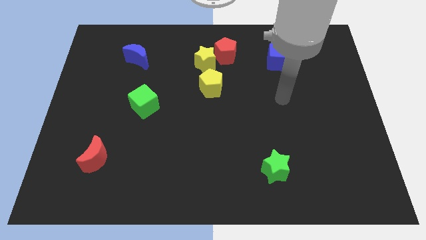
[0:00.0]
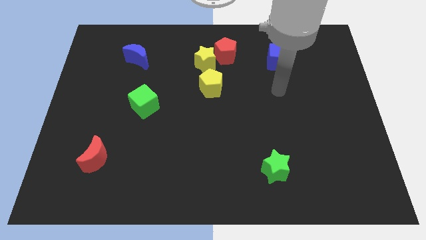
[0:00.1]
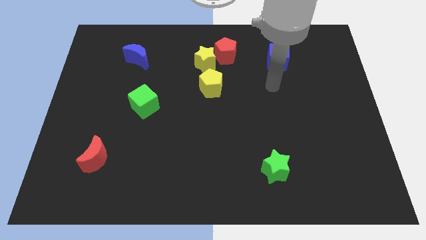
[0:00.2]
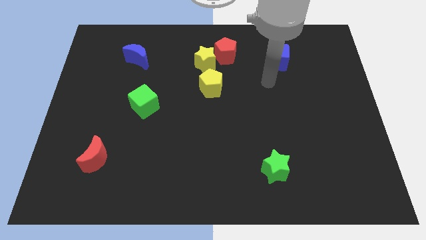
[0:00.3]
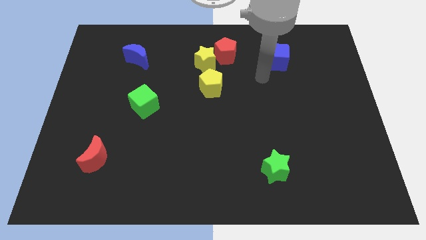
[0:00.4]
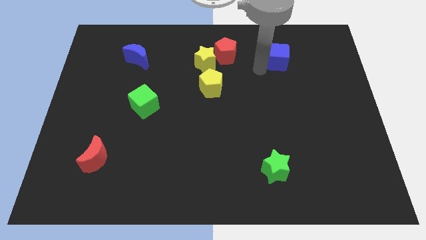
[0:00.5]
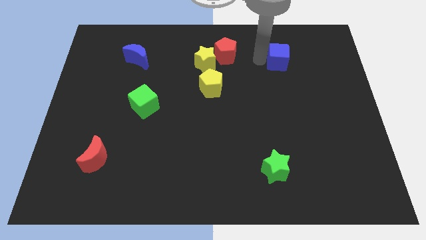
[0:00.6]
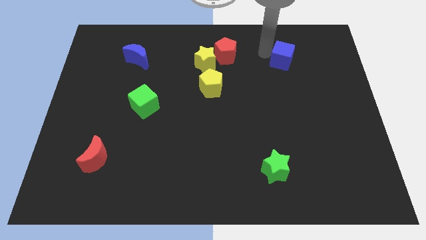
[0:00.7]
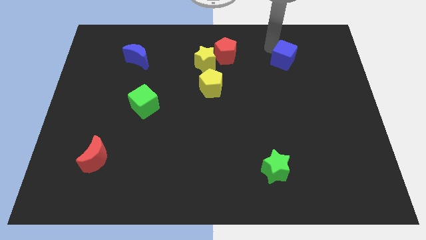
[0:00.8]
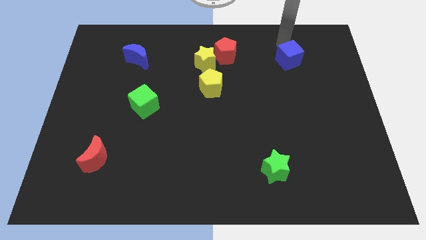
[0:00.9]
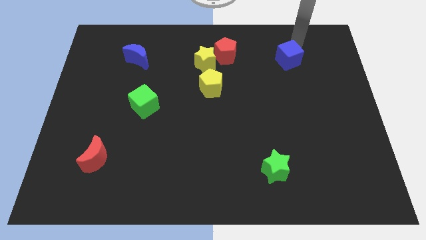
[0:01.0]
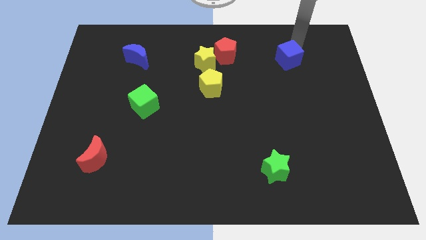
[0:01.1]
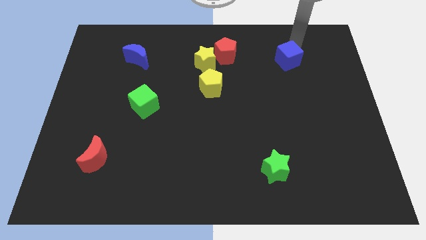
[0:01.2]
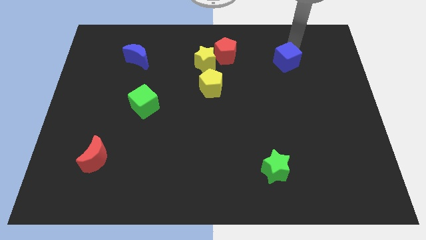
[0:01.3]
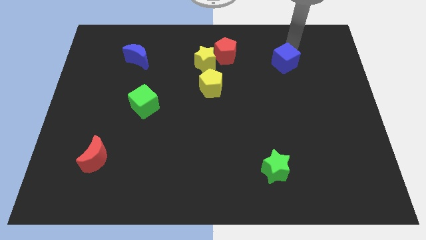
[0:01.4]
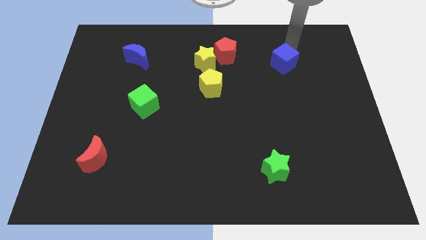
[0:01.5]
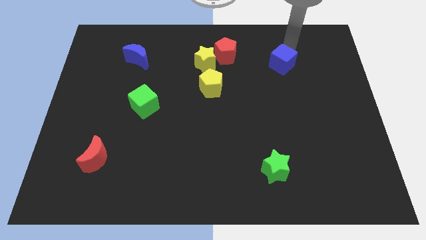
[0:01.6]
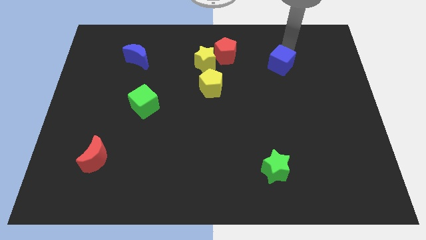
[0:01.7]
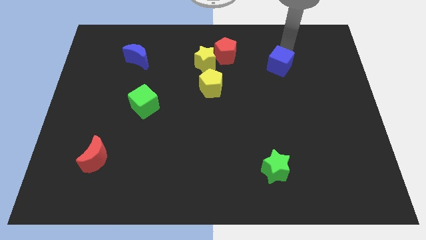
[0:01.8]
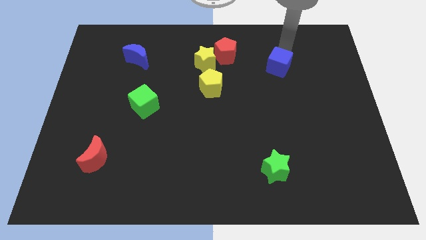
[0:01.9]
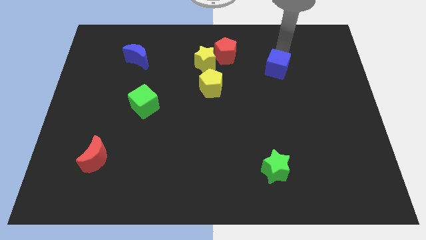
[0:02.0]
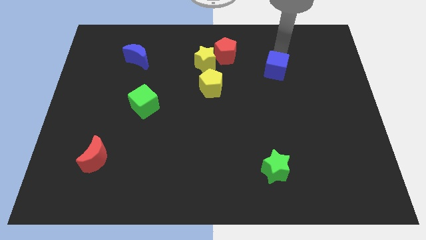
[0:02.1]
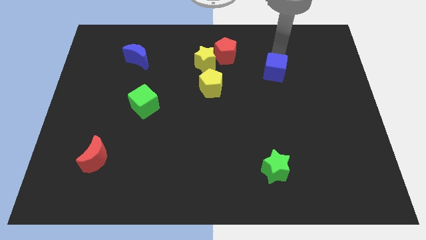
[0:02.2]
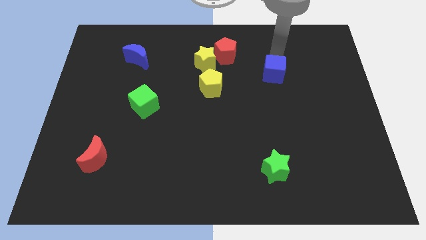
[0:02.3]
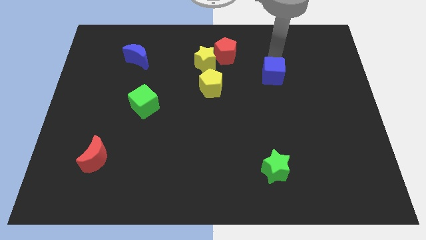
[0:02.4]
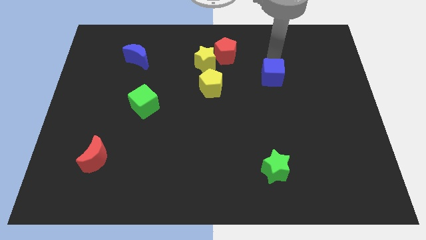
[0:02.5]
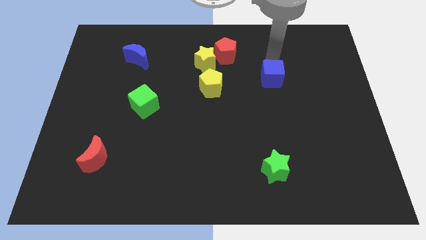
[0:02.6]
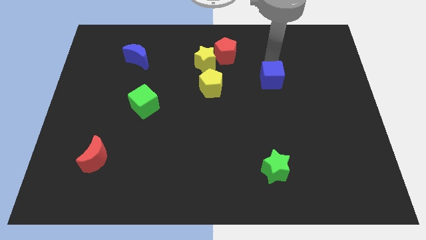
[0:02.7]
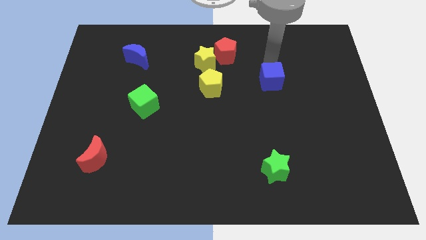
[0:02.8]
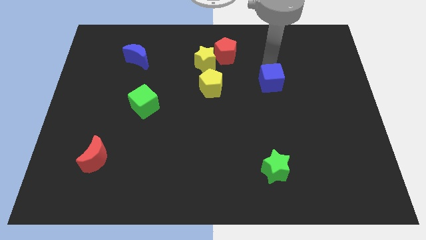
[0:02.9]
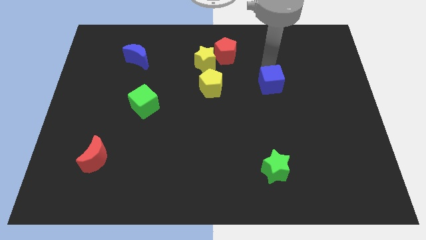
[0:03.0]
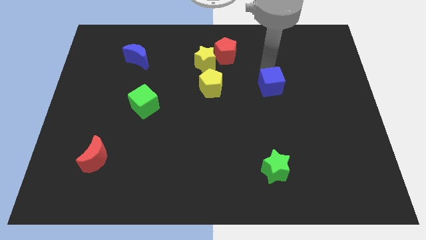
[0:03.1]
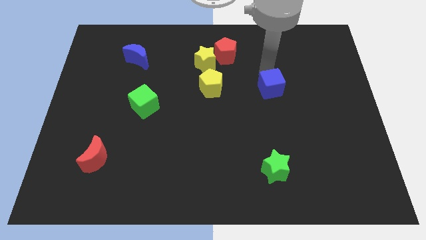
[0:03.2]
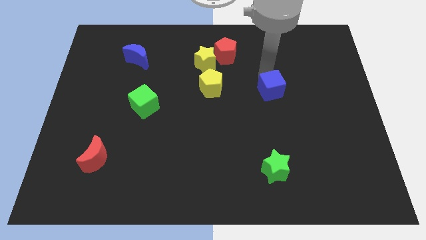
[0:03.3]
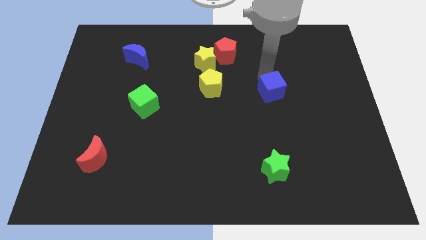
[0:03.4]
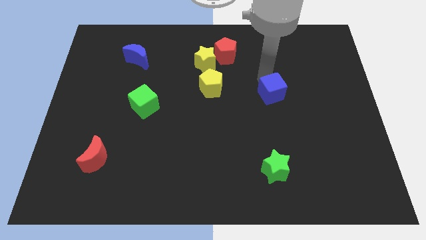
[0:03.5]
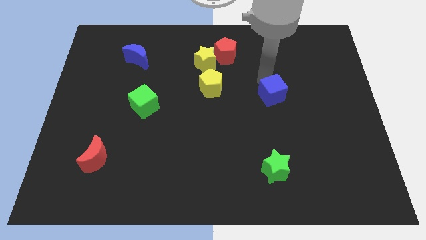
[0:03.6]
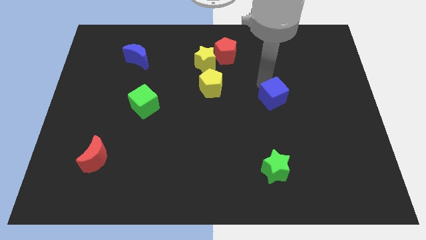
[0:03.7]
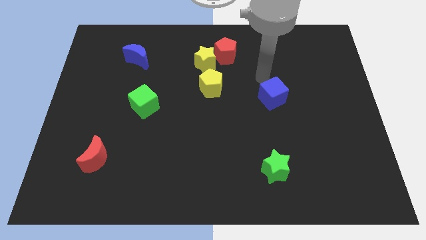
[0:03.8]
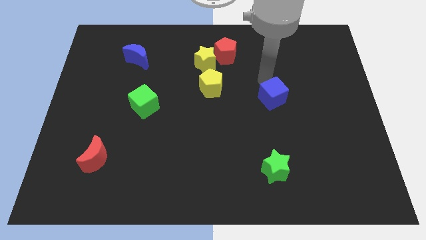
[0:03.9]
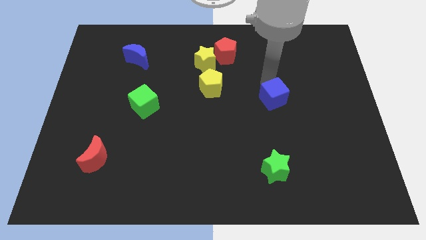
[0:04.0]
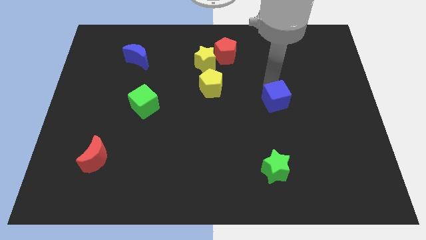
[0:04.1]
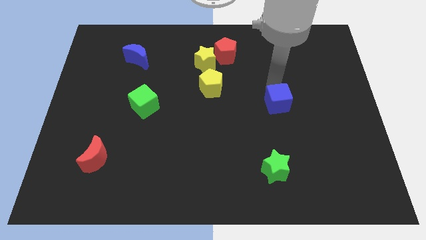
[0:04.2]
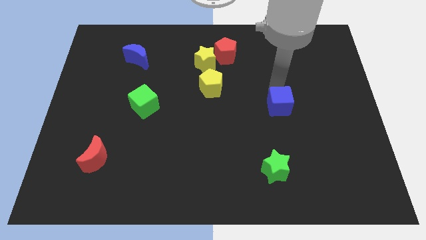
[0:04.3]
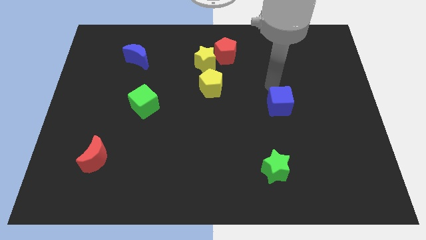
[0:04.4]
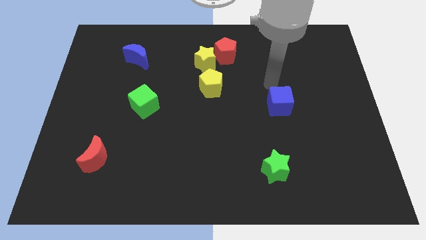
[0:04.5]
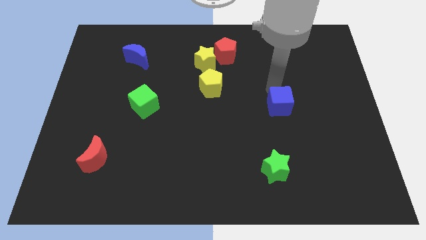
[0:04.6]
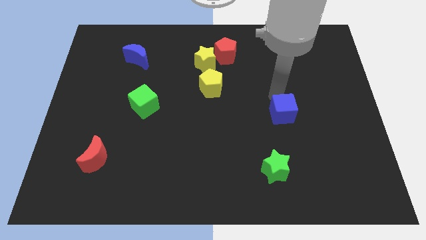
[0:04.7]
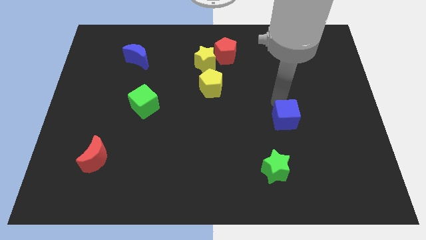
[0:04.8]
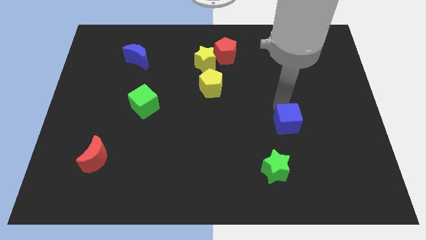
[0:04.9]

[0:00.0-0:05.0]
move the blue cube downwards

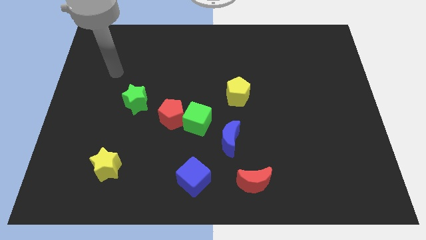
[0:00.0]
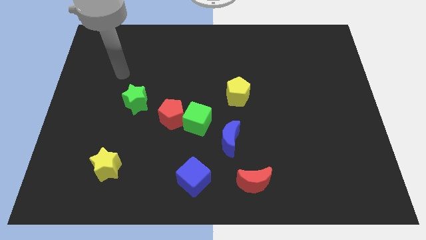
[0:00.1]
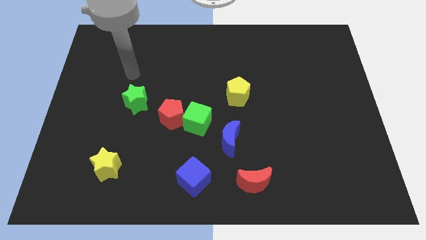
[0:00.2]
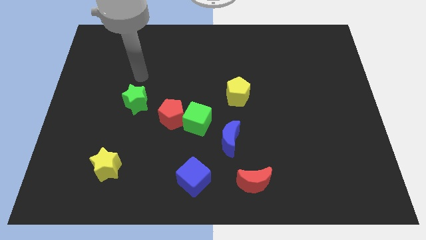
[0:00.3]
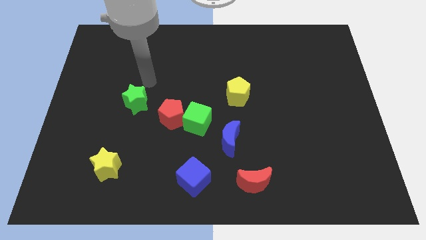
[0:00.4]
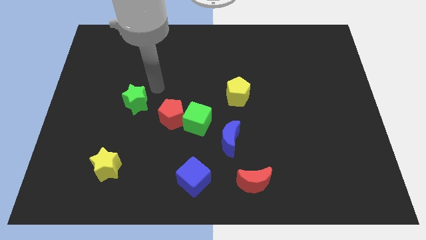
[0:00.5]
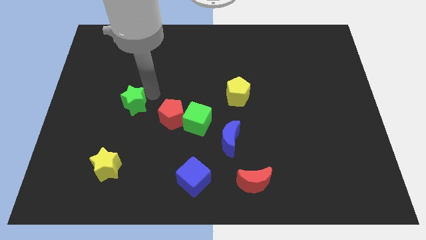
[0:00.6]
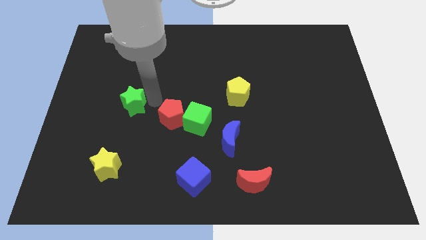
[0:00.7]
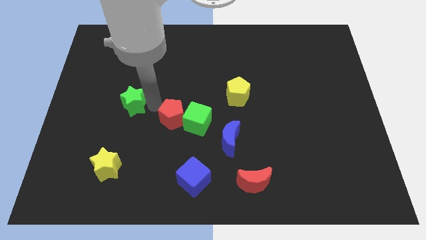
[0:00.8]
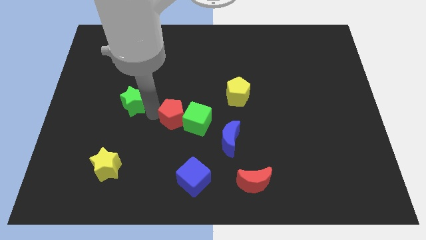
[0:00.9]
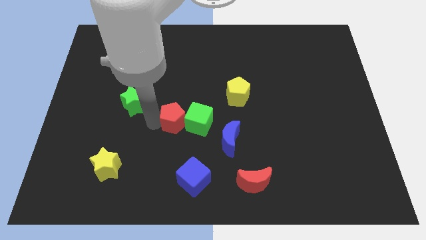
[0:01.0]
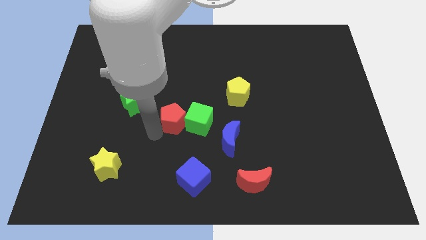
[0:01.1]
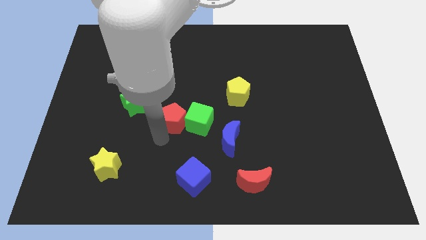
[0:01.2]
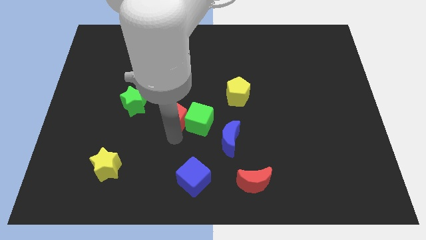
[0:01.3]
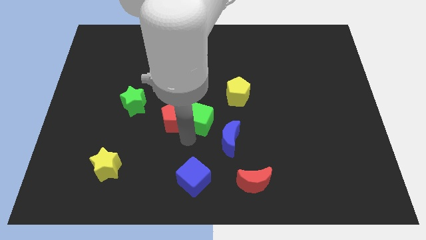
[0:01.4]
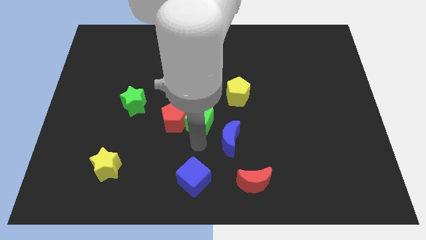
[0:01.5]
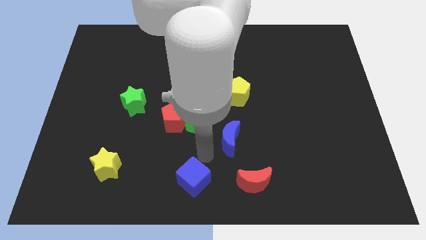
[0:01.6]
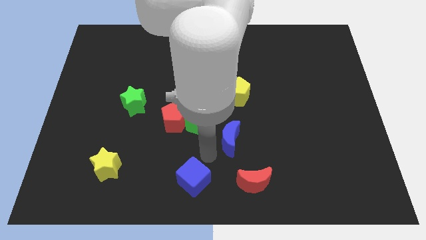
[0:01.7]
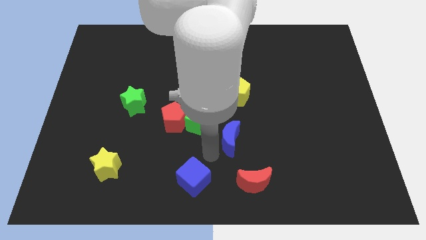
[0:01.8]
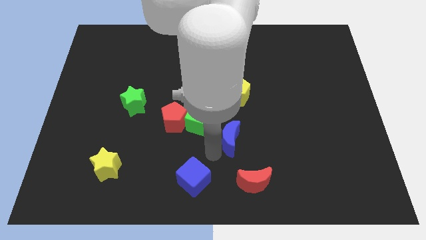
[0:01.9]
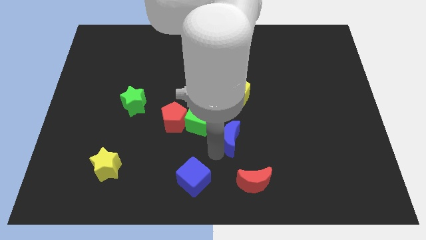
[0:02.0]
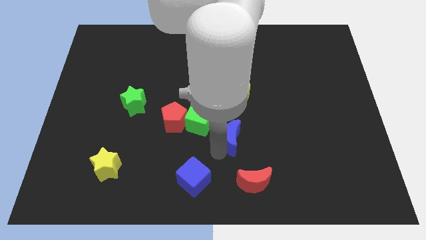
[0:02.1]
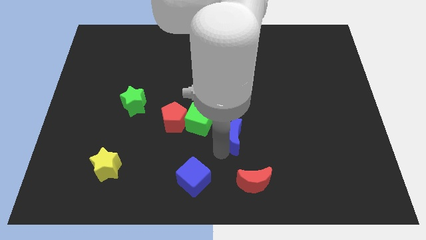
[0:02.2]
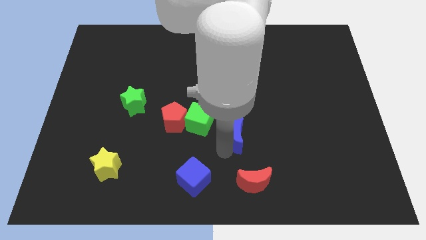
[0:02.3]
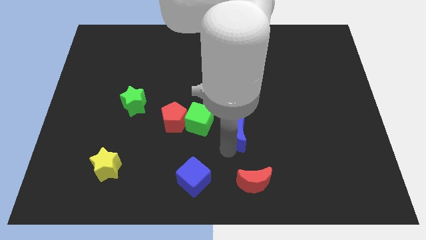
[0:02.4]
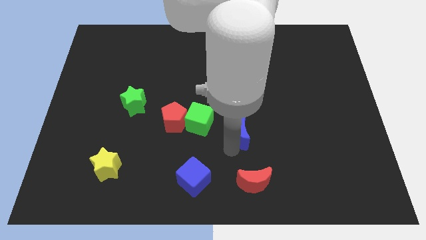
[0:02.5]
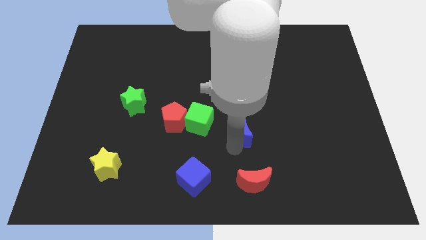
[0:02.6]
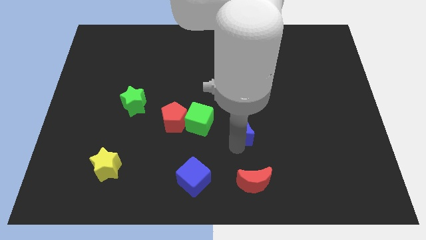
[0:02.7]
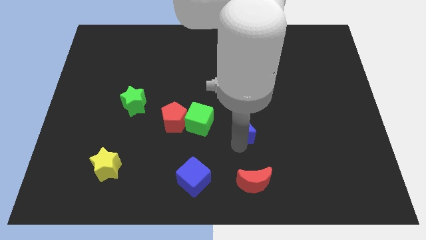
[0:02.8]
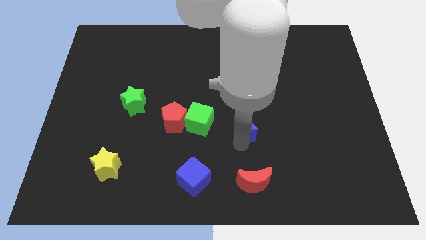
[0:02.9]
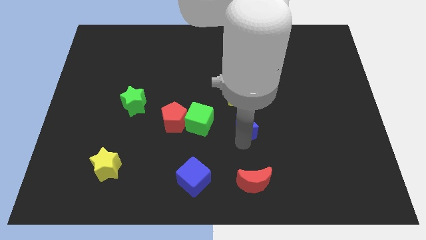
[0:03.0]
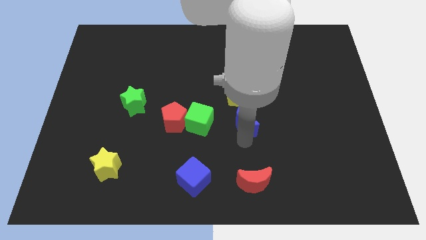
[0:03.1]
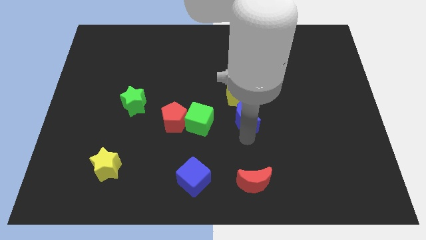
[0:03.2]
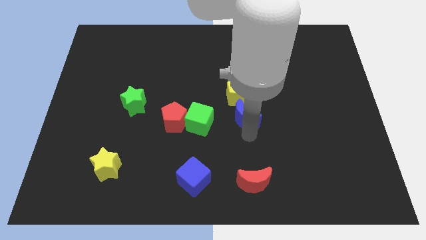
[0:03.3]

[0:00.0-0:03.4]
slightly push the blue moon up and then right

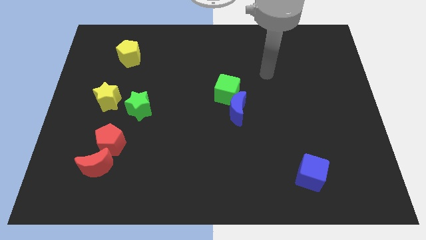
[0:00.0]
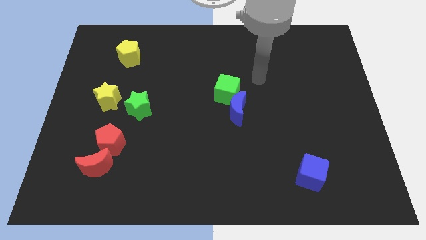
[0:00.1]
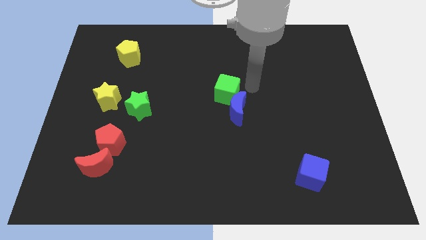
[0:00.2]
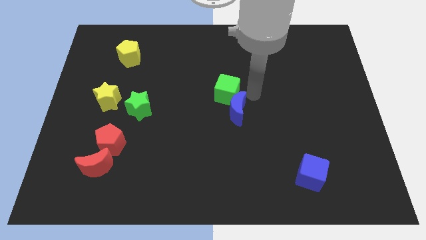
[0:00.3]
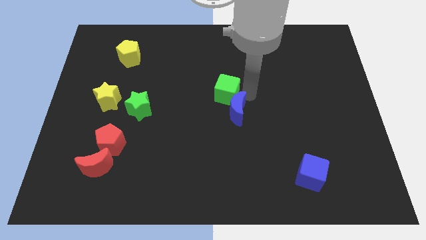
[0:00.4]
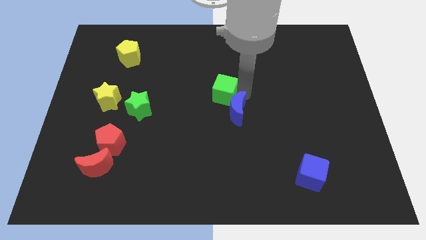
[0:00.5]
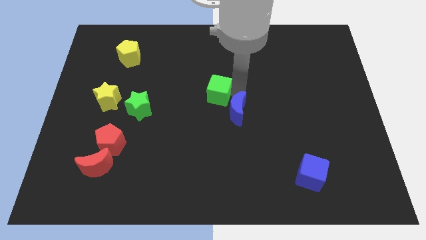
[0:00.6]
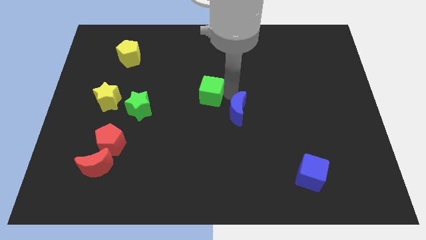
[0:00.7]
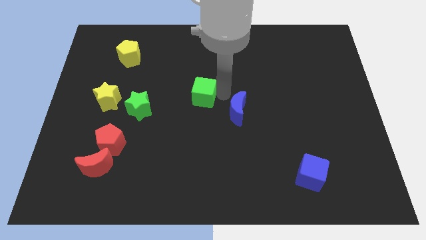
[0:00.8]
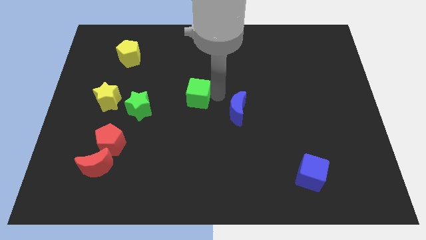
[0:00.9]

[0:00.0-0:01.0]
push the green cube slightly to the left
